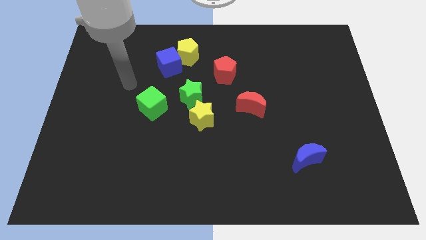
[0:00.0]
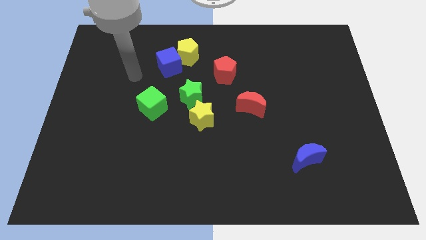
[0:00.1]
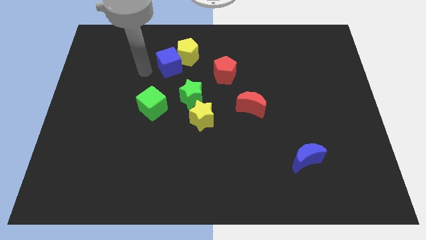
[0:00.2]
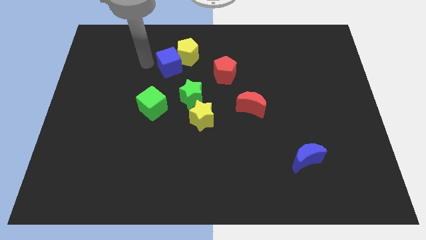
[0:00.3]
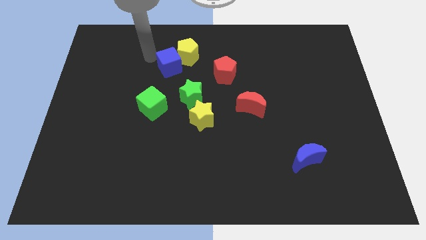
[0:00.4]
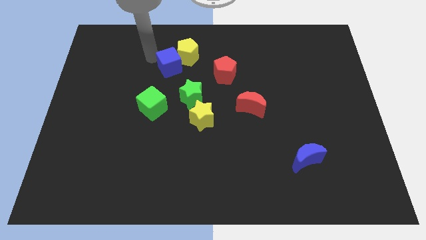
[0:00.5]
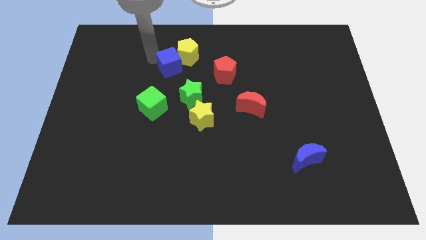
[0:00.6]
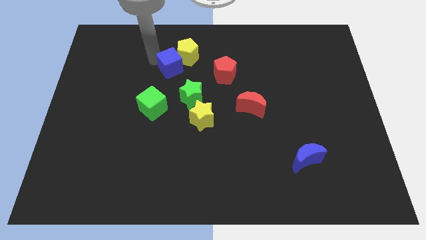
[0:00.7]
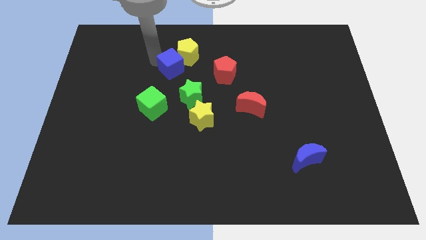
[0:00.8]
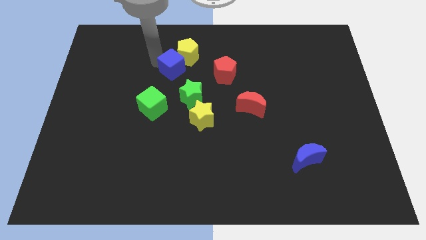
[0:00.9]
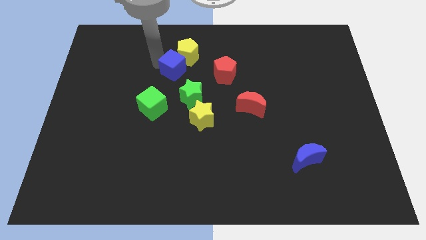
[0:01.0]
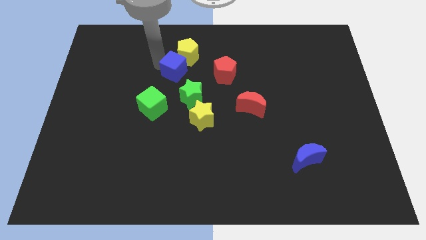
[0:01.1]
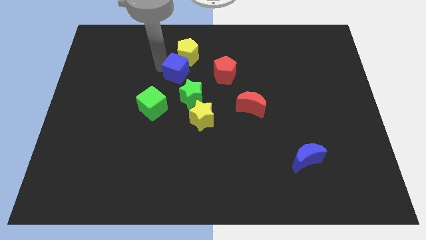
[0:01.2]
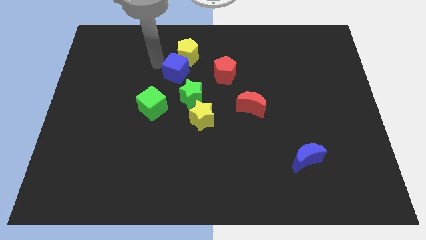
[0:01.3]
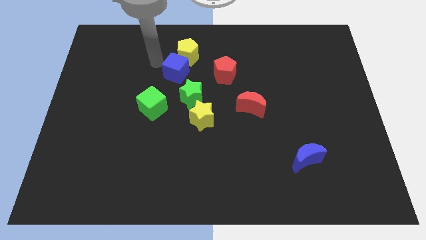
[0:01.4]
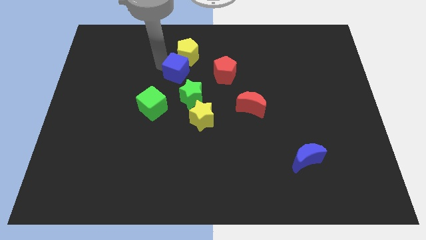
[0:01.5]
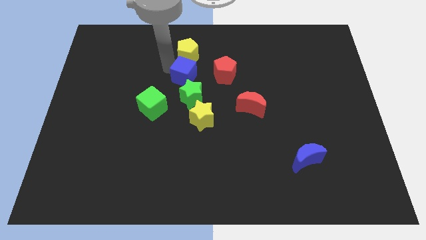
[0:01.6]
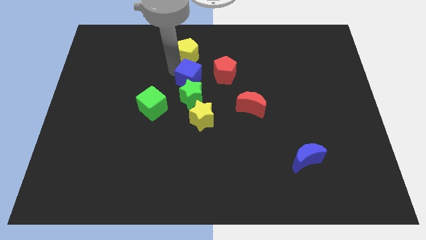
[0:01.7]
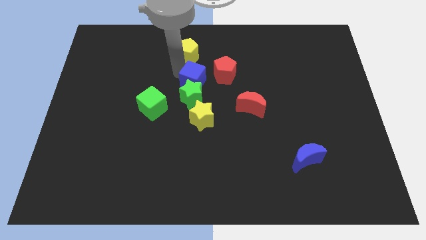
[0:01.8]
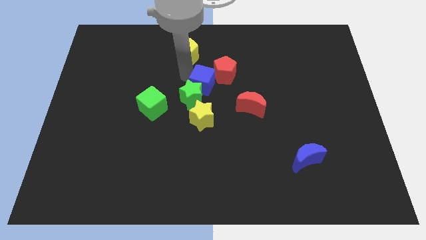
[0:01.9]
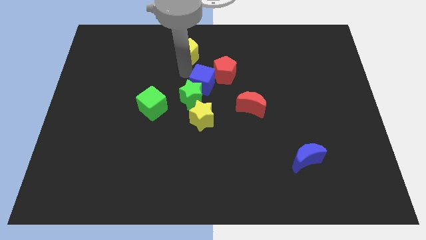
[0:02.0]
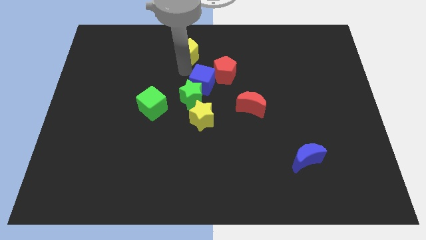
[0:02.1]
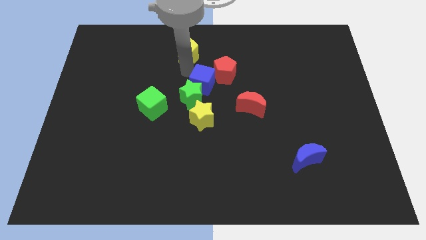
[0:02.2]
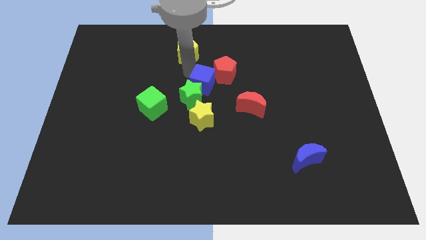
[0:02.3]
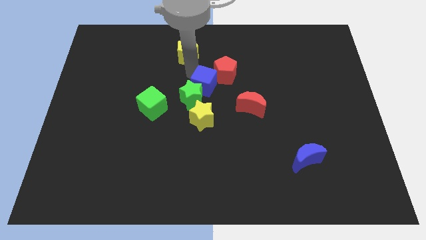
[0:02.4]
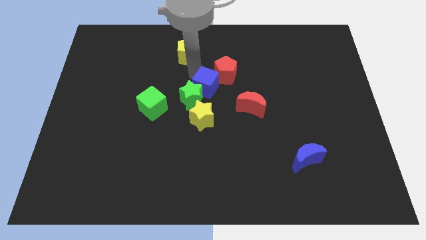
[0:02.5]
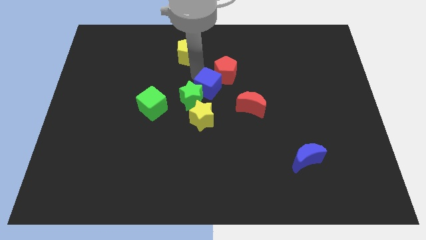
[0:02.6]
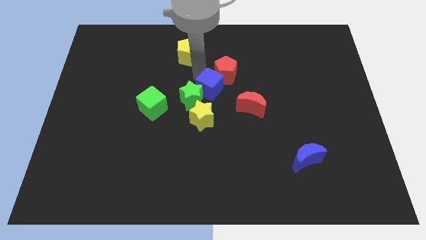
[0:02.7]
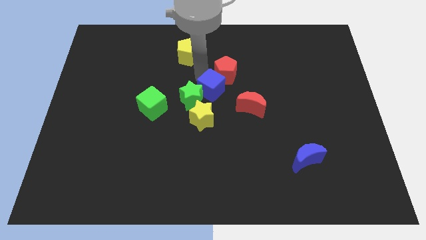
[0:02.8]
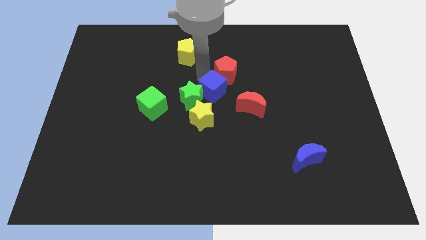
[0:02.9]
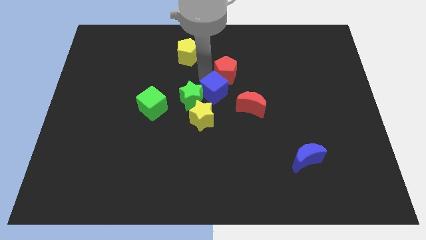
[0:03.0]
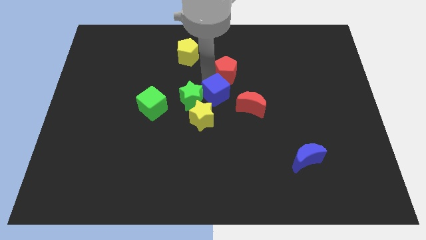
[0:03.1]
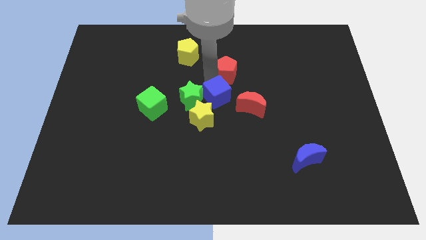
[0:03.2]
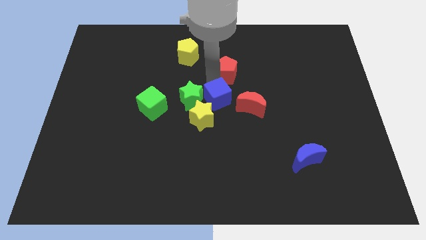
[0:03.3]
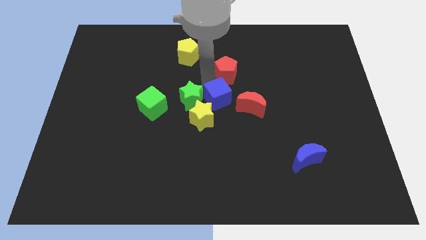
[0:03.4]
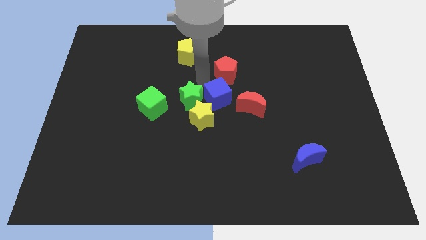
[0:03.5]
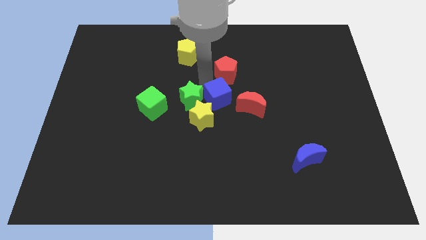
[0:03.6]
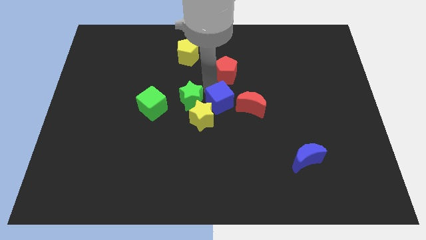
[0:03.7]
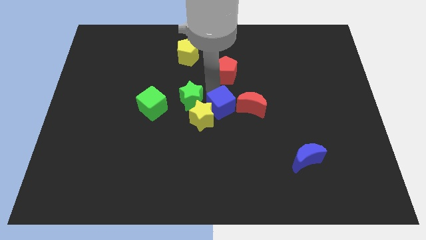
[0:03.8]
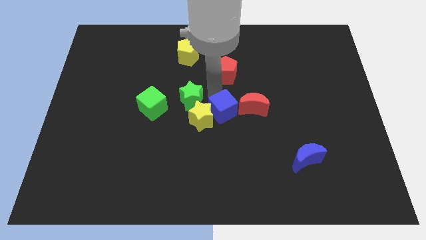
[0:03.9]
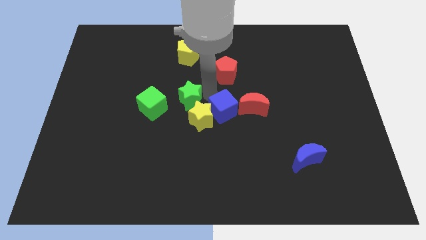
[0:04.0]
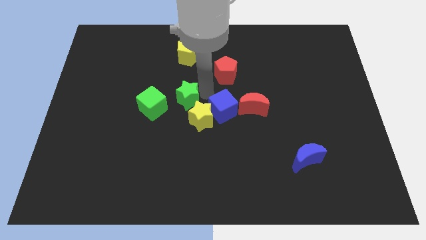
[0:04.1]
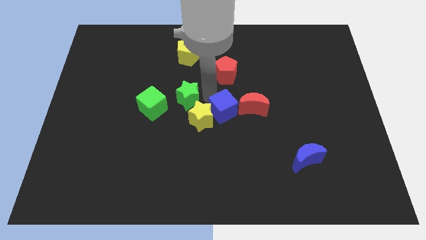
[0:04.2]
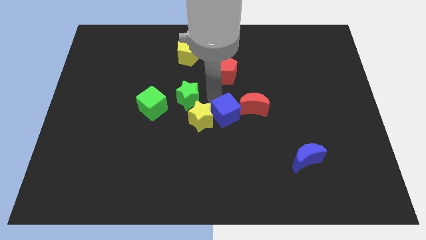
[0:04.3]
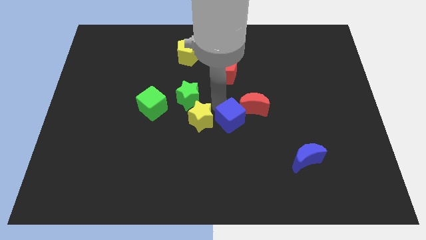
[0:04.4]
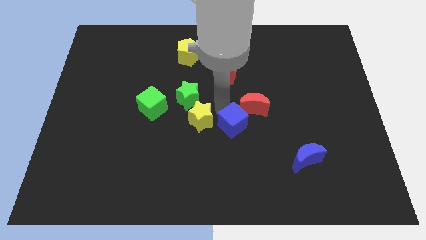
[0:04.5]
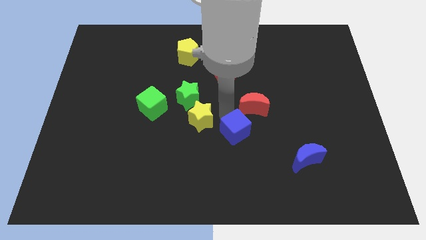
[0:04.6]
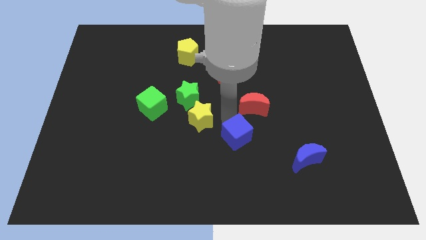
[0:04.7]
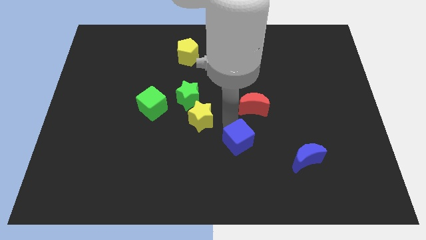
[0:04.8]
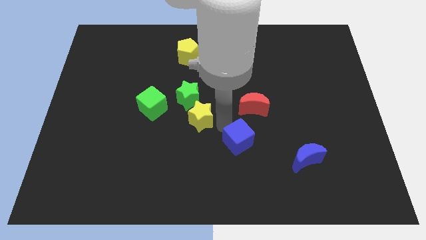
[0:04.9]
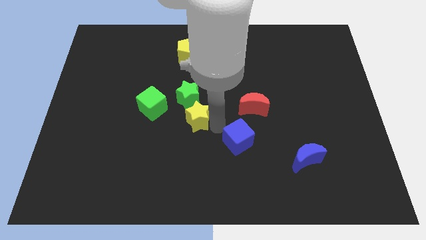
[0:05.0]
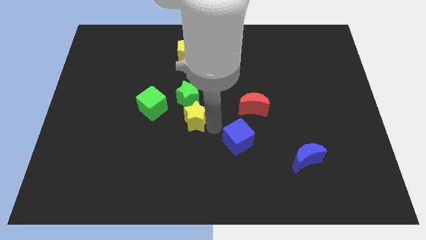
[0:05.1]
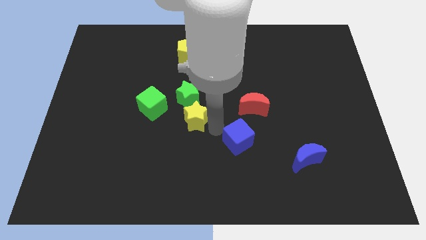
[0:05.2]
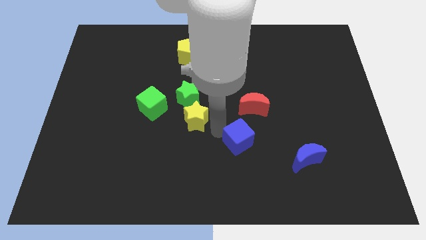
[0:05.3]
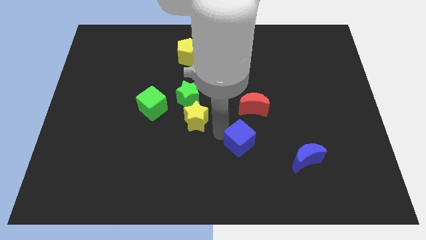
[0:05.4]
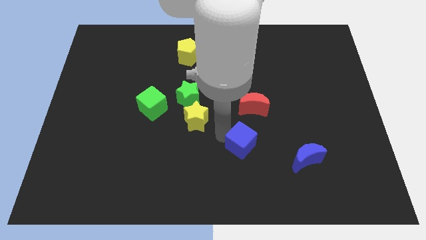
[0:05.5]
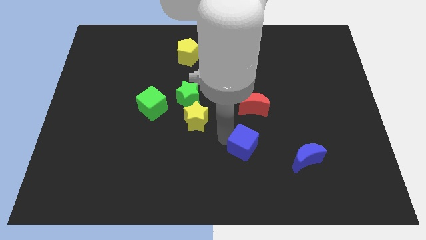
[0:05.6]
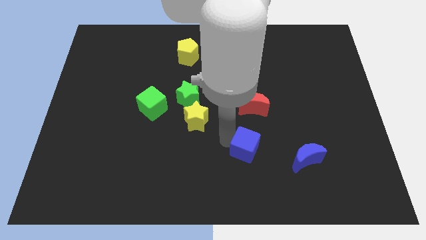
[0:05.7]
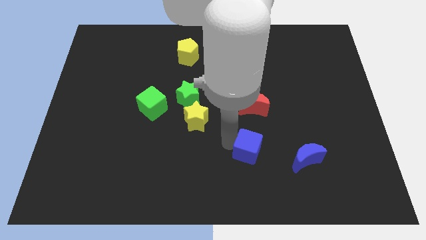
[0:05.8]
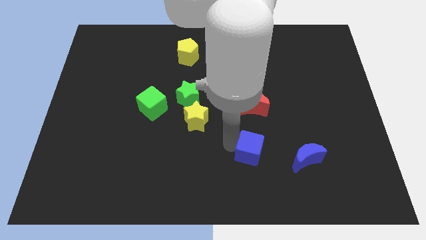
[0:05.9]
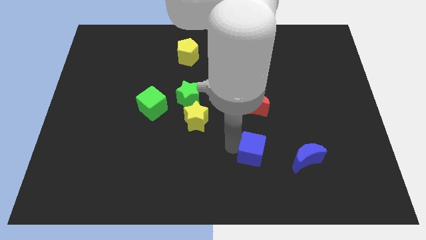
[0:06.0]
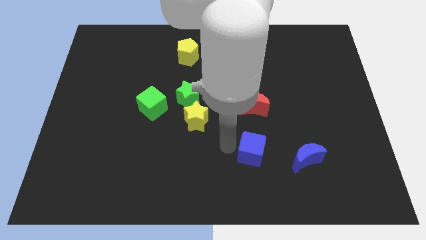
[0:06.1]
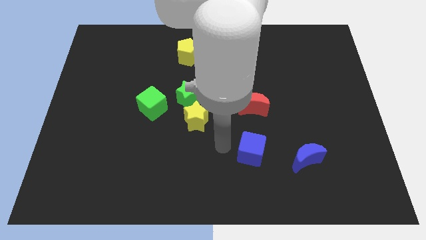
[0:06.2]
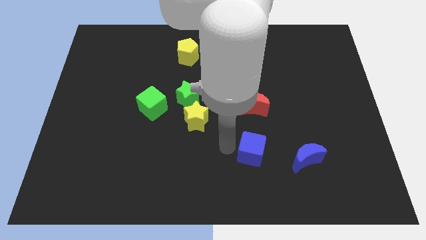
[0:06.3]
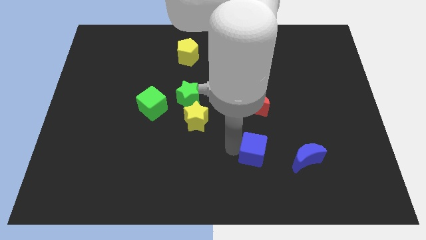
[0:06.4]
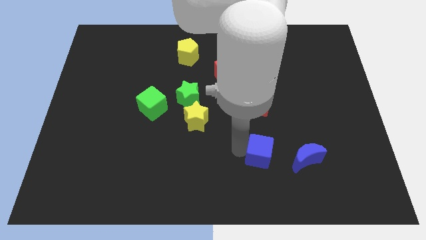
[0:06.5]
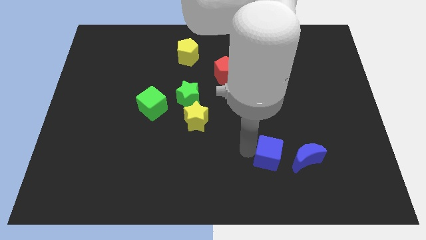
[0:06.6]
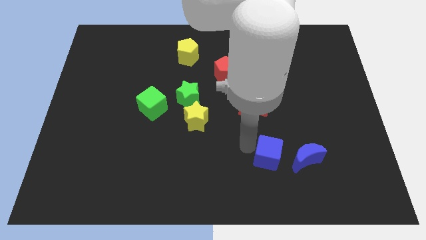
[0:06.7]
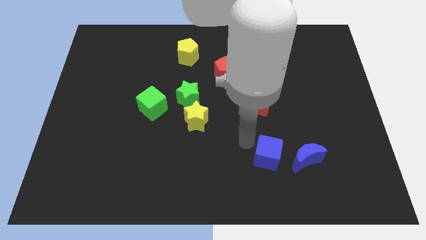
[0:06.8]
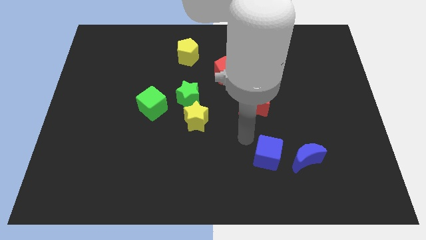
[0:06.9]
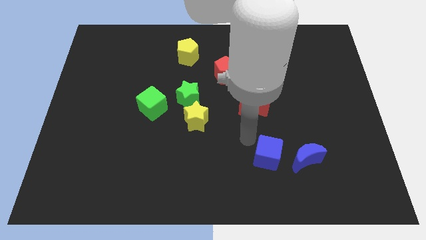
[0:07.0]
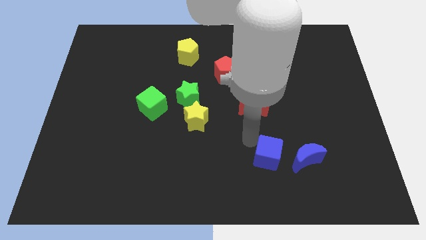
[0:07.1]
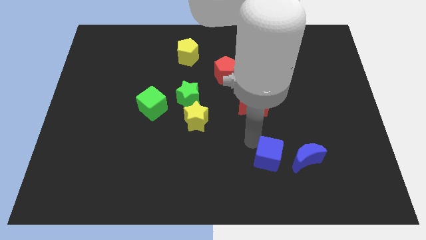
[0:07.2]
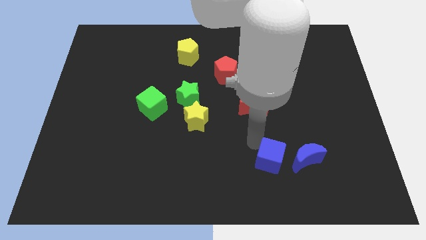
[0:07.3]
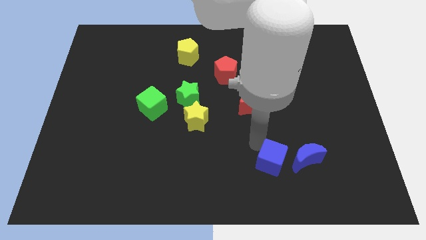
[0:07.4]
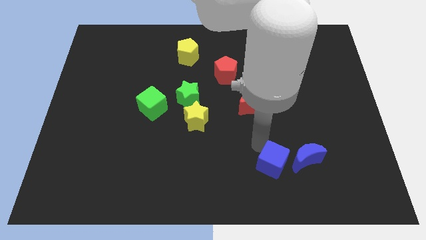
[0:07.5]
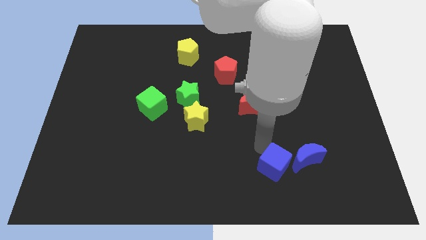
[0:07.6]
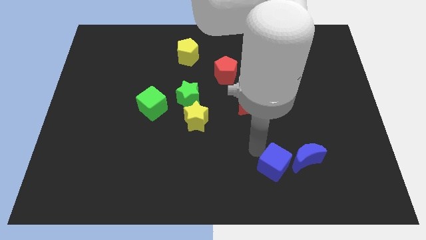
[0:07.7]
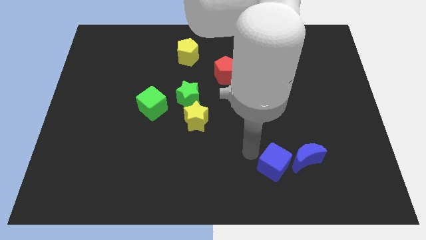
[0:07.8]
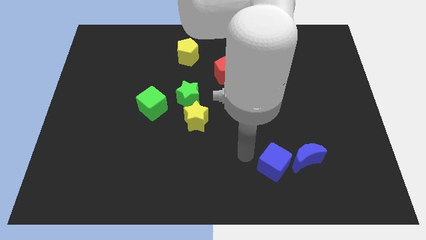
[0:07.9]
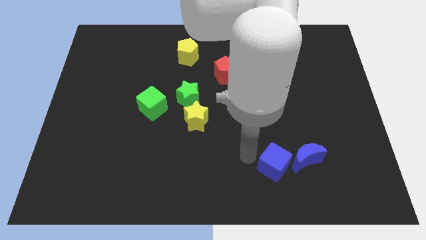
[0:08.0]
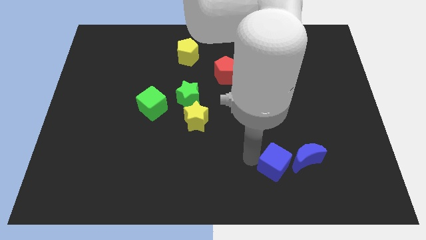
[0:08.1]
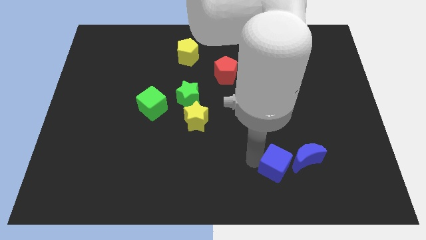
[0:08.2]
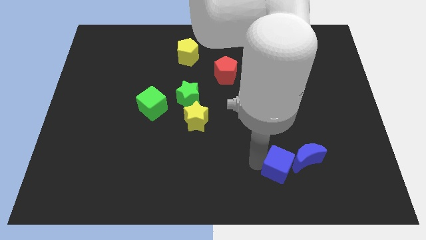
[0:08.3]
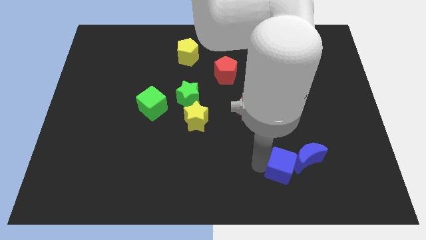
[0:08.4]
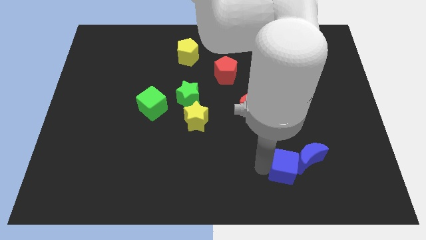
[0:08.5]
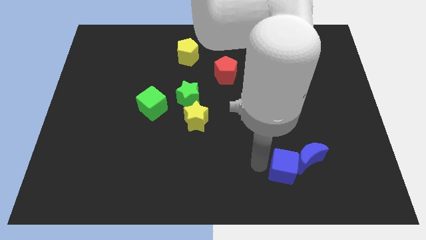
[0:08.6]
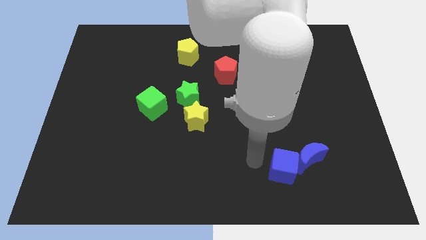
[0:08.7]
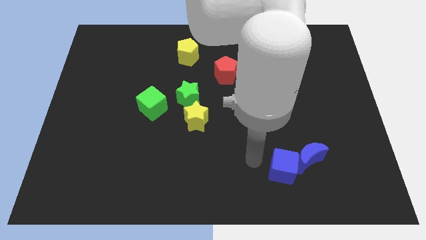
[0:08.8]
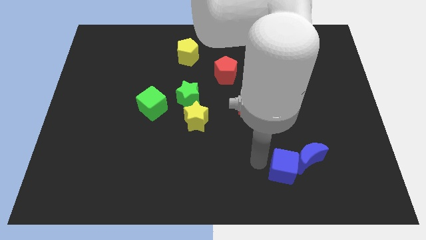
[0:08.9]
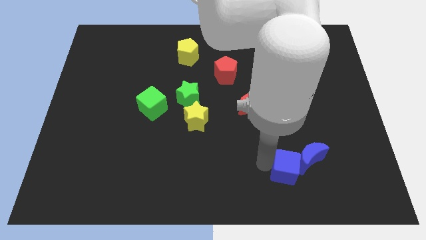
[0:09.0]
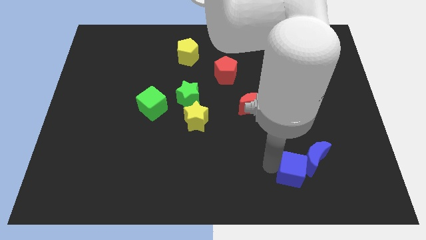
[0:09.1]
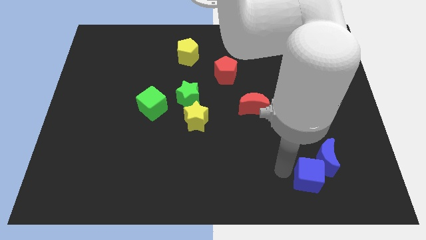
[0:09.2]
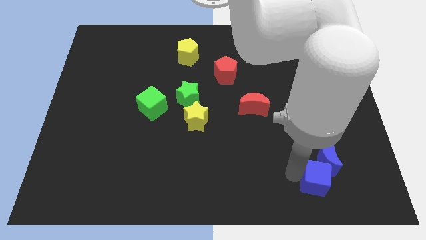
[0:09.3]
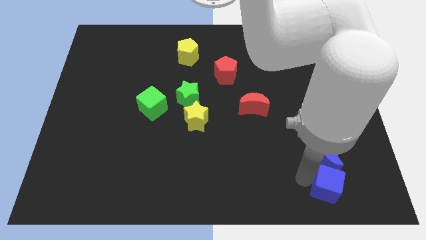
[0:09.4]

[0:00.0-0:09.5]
put the blue cube to the bottom right side of the blue moon
